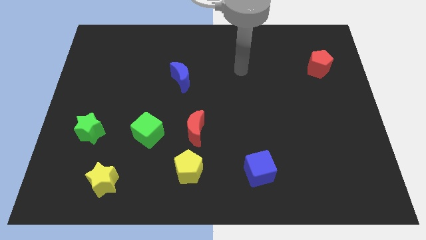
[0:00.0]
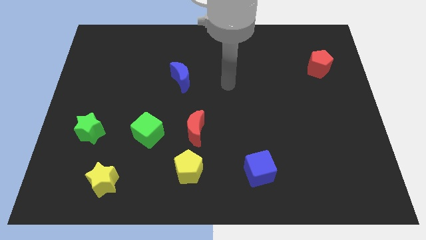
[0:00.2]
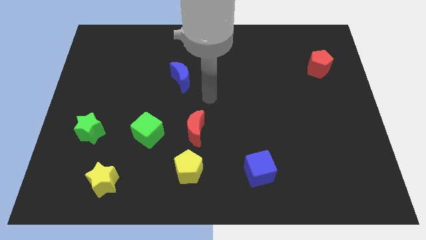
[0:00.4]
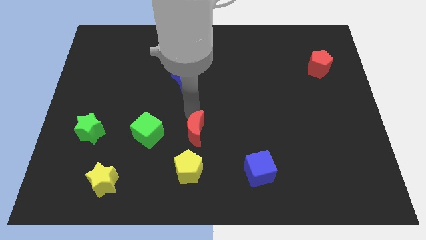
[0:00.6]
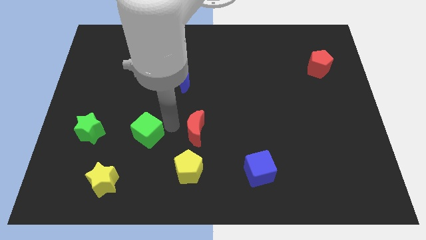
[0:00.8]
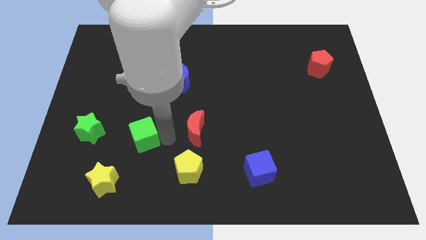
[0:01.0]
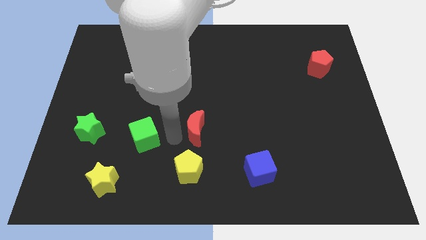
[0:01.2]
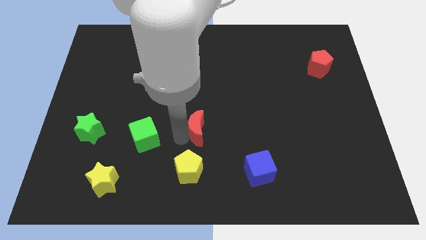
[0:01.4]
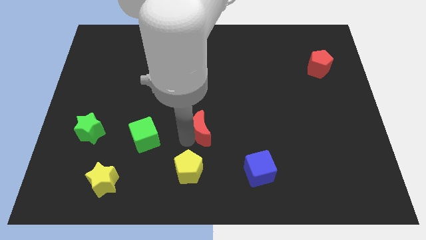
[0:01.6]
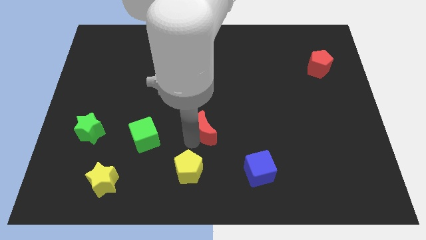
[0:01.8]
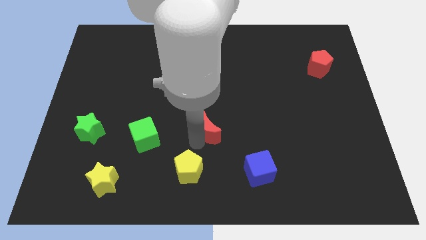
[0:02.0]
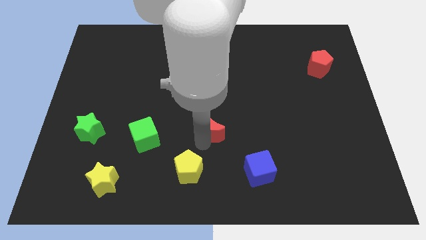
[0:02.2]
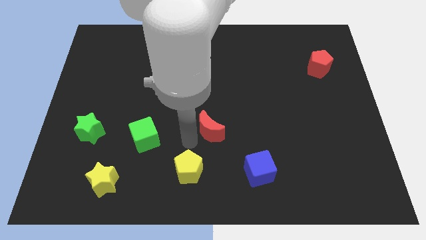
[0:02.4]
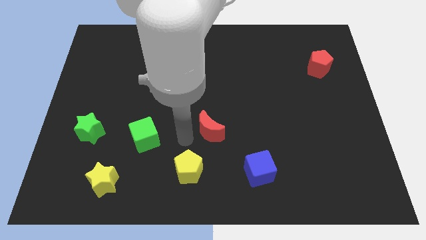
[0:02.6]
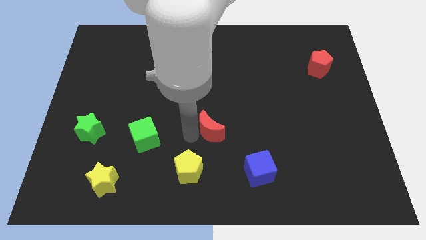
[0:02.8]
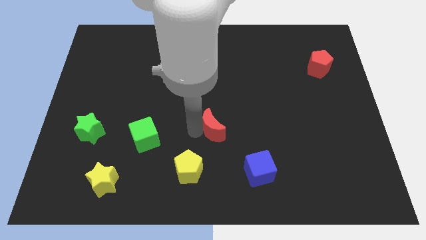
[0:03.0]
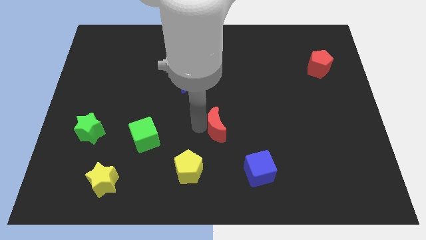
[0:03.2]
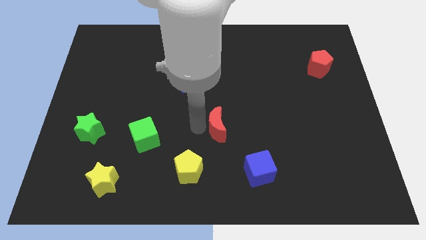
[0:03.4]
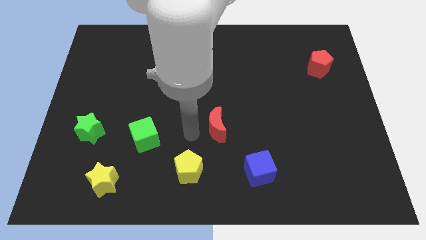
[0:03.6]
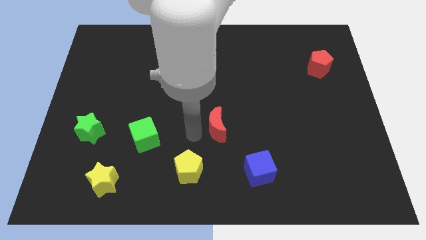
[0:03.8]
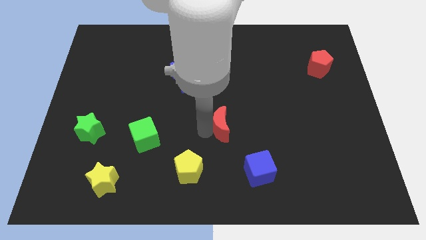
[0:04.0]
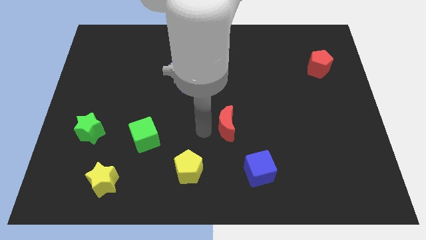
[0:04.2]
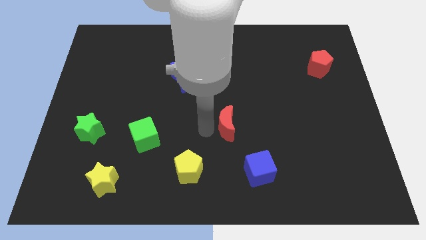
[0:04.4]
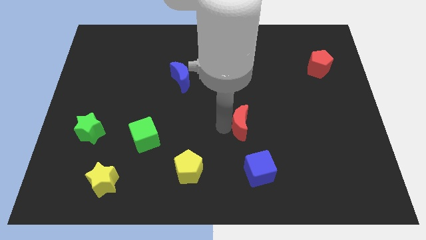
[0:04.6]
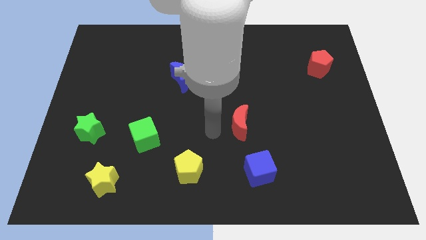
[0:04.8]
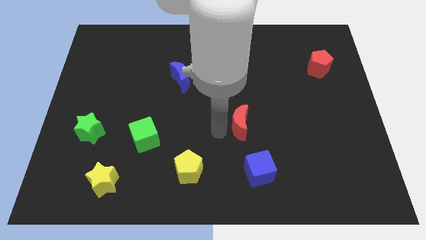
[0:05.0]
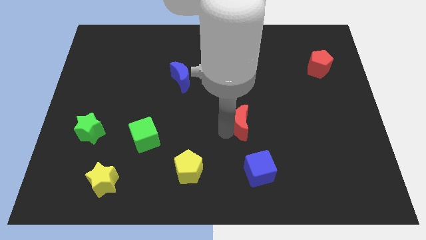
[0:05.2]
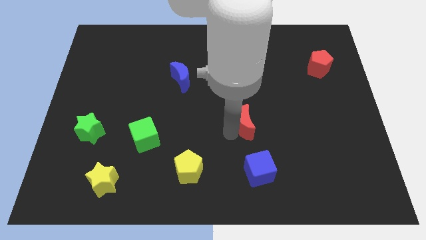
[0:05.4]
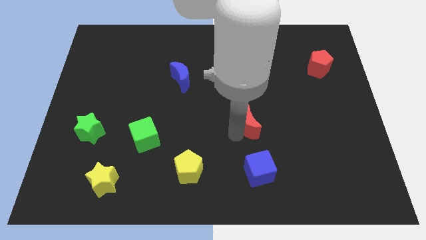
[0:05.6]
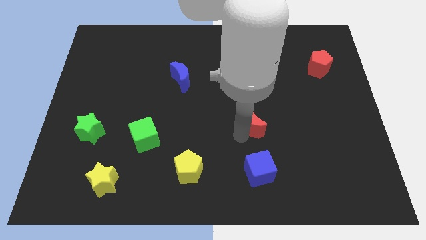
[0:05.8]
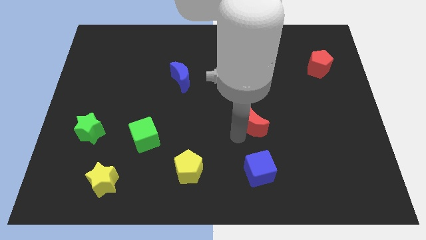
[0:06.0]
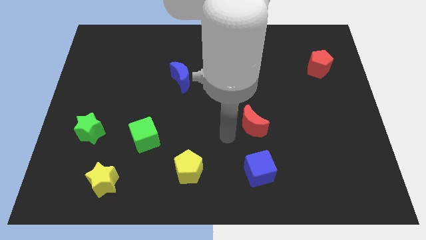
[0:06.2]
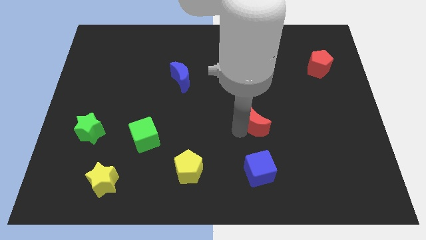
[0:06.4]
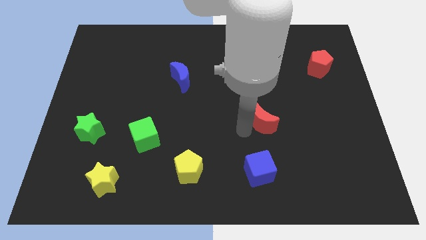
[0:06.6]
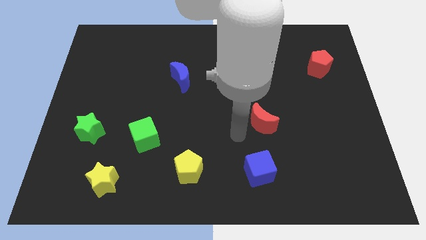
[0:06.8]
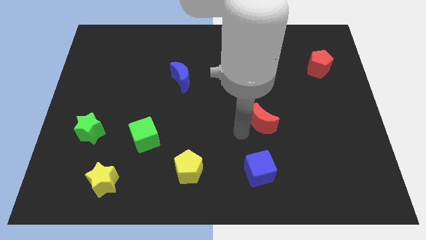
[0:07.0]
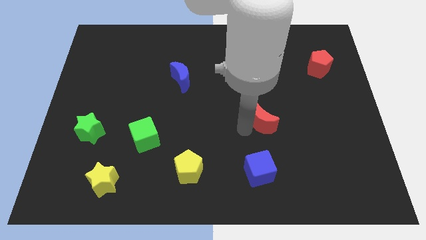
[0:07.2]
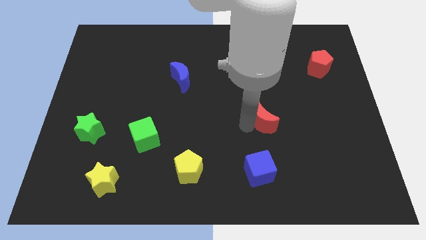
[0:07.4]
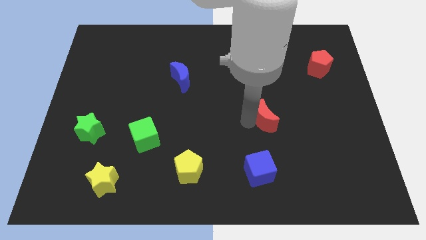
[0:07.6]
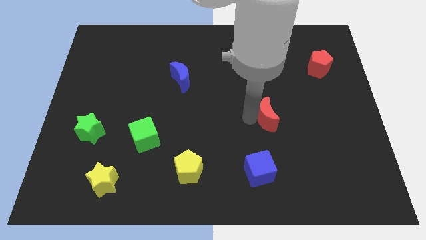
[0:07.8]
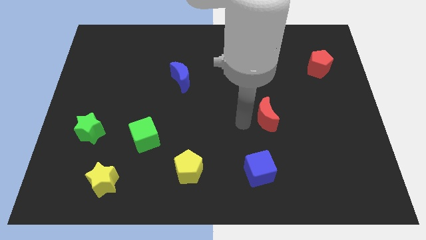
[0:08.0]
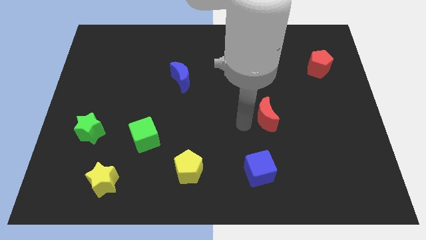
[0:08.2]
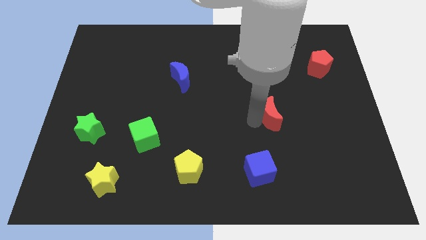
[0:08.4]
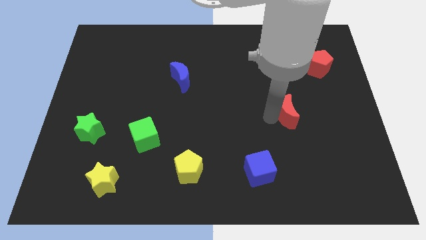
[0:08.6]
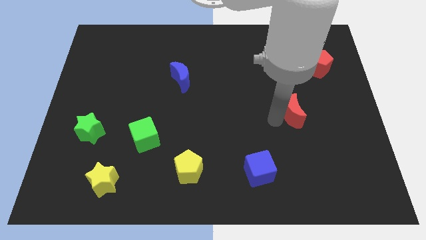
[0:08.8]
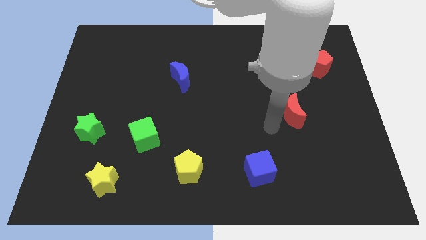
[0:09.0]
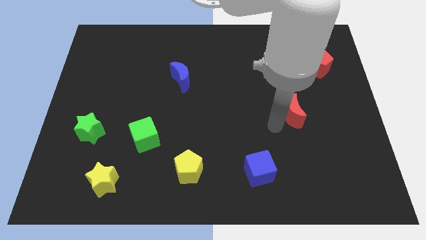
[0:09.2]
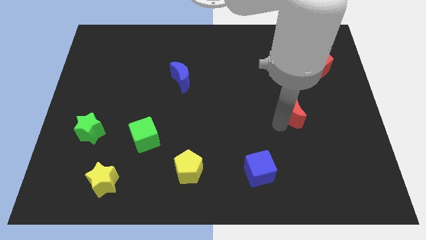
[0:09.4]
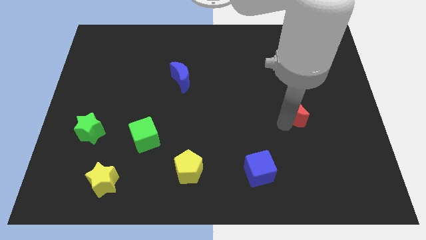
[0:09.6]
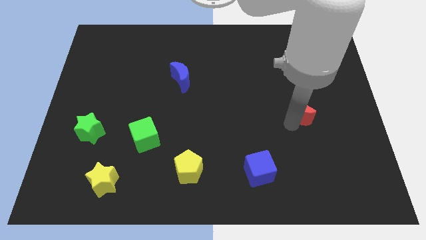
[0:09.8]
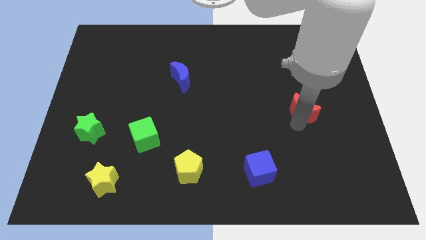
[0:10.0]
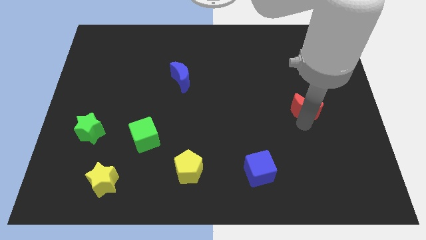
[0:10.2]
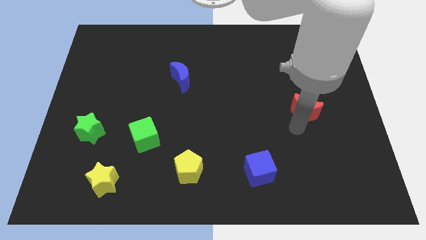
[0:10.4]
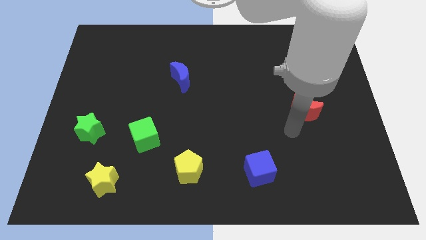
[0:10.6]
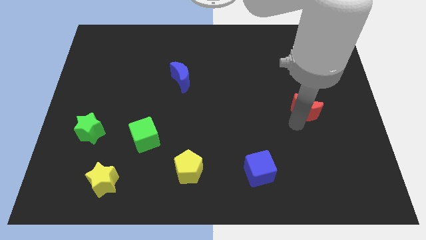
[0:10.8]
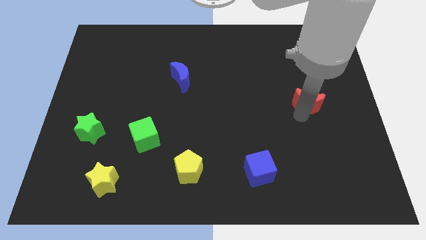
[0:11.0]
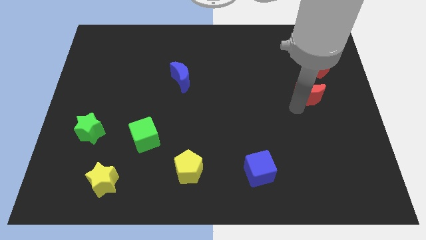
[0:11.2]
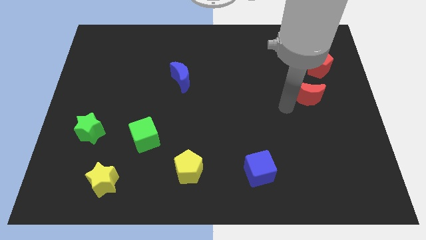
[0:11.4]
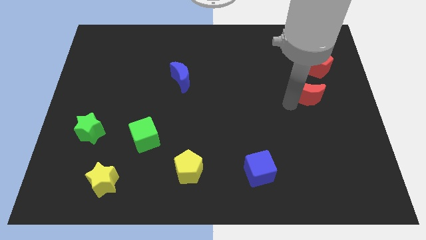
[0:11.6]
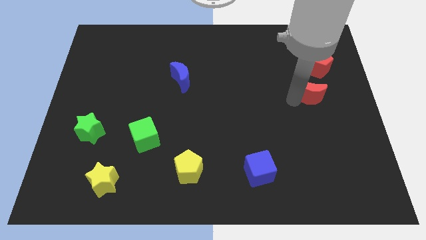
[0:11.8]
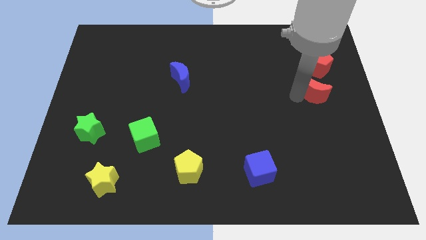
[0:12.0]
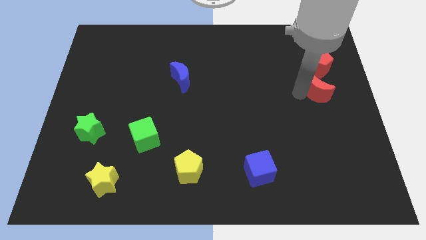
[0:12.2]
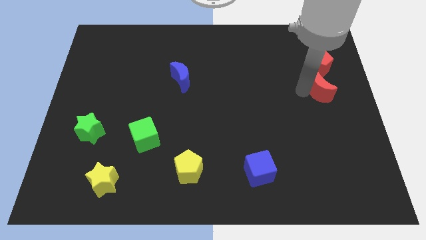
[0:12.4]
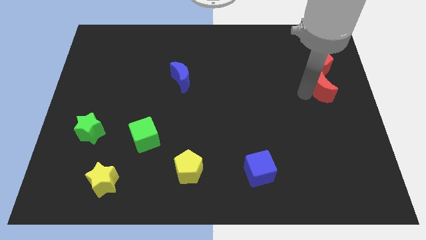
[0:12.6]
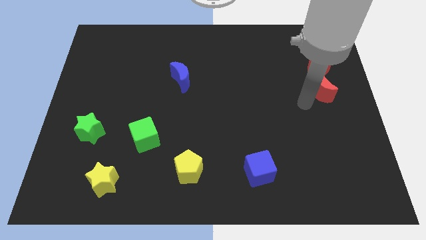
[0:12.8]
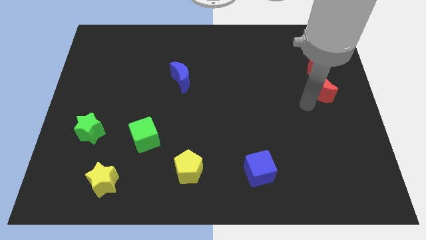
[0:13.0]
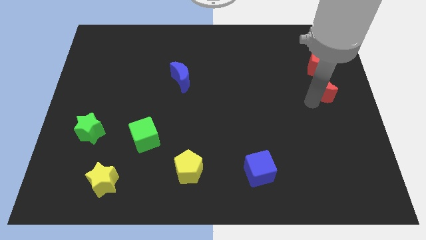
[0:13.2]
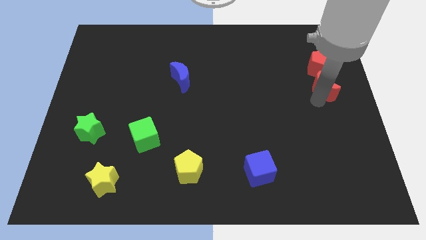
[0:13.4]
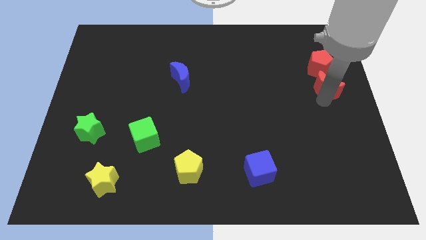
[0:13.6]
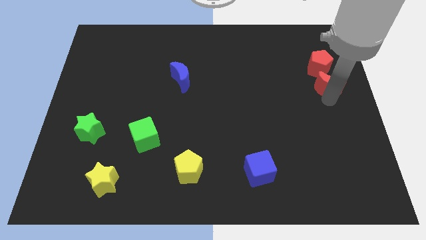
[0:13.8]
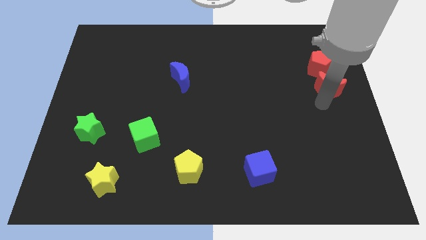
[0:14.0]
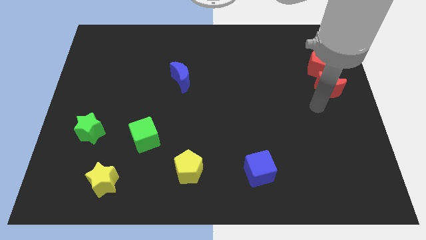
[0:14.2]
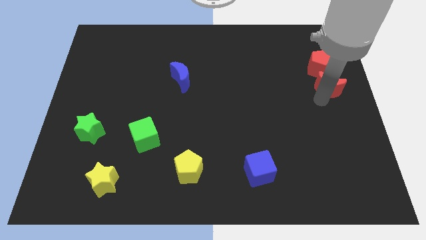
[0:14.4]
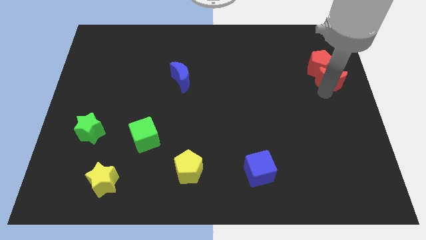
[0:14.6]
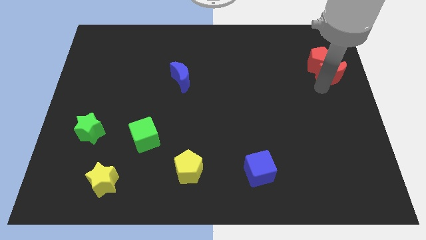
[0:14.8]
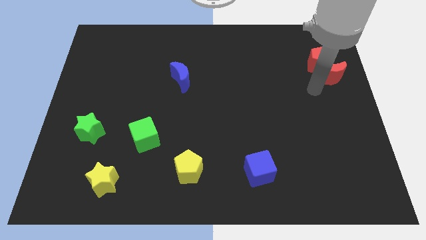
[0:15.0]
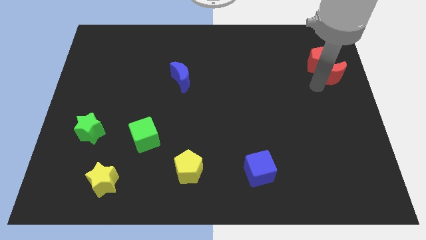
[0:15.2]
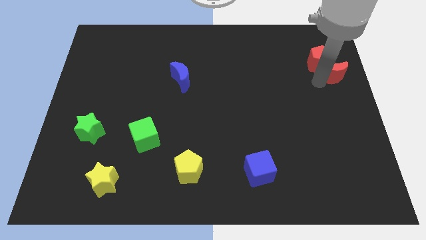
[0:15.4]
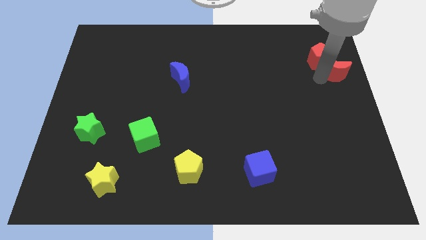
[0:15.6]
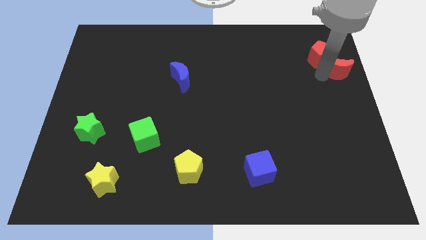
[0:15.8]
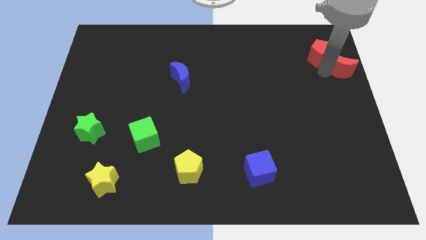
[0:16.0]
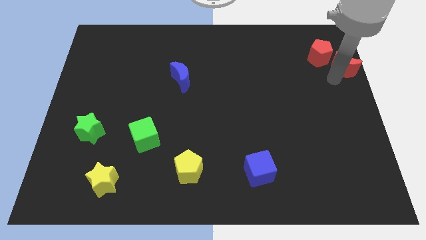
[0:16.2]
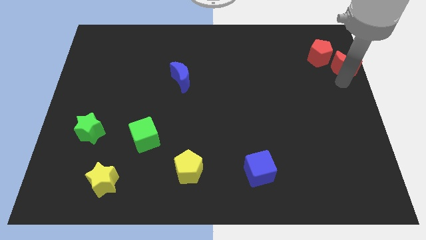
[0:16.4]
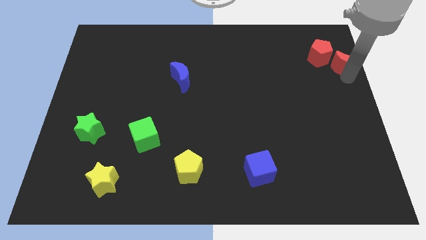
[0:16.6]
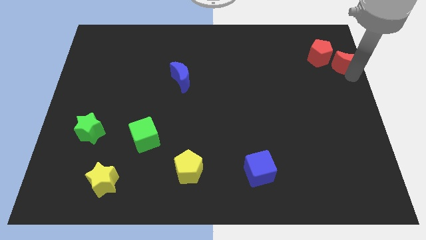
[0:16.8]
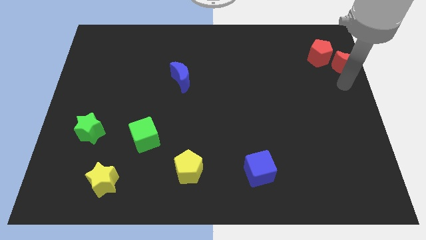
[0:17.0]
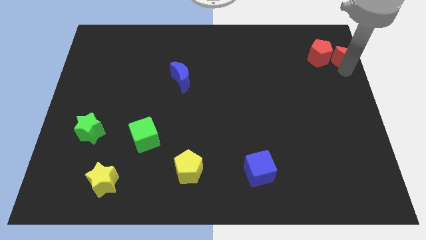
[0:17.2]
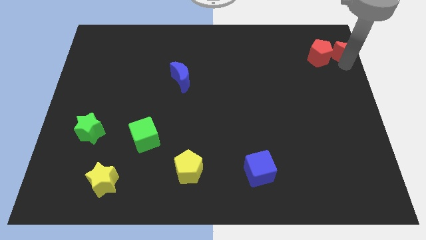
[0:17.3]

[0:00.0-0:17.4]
slide the red moon to the top right
